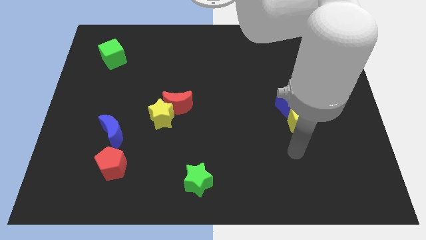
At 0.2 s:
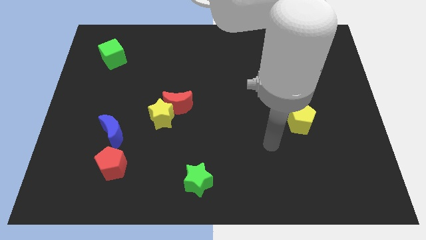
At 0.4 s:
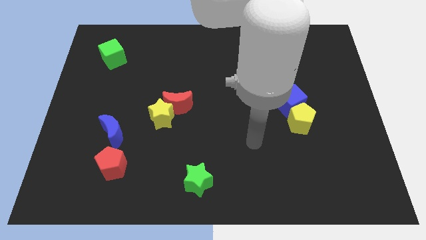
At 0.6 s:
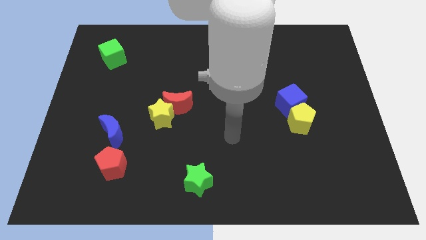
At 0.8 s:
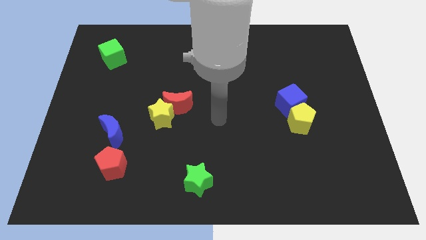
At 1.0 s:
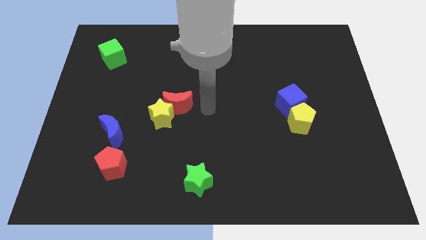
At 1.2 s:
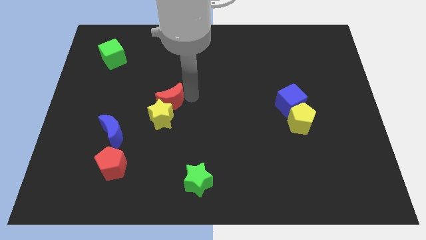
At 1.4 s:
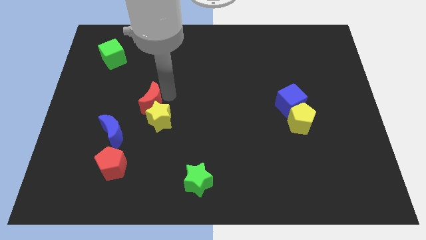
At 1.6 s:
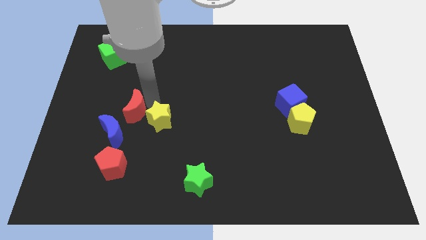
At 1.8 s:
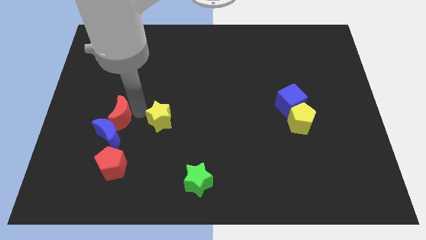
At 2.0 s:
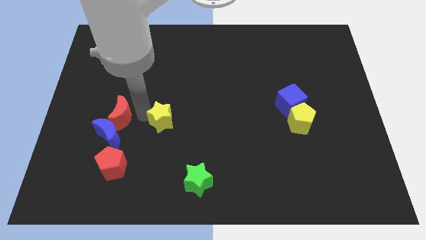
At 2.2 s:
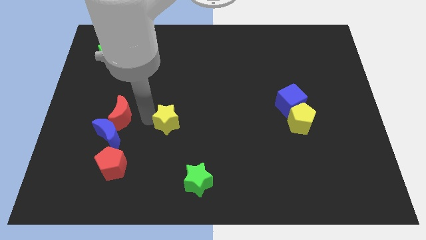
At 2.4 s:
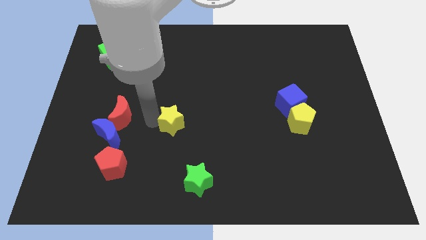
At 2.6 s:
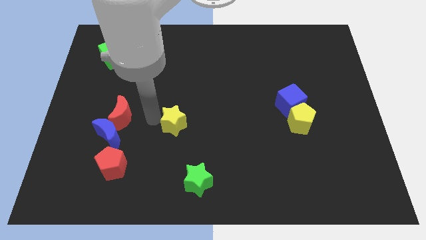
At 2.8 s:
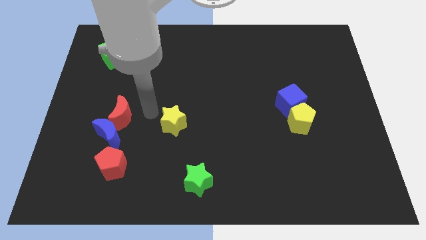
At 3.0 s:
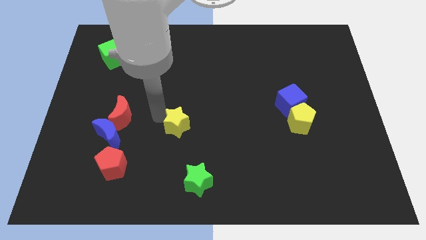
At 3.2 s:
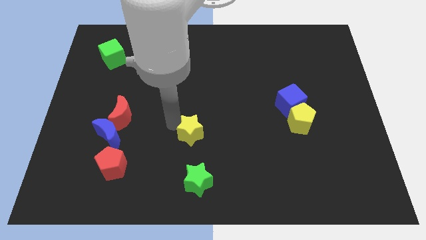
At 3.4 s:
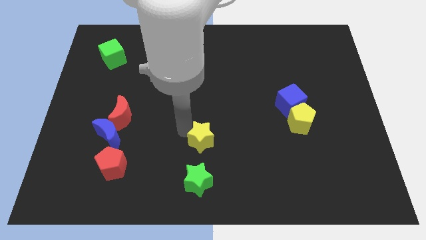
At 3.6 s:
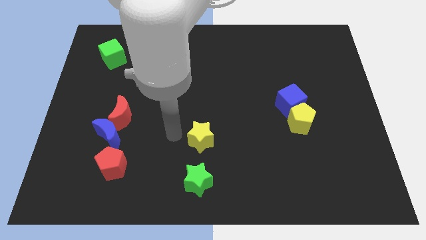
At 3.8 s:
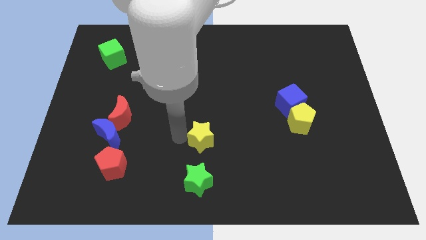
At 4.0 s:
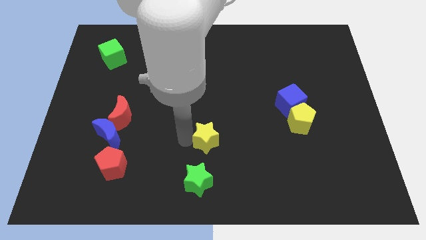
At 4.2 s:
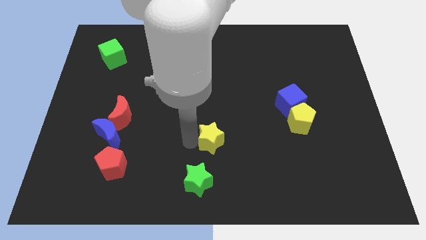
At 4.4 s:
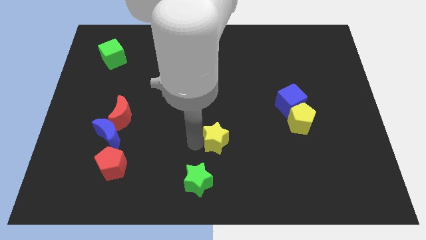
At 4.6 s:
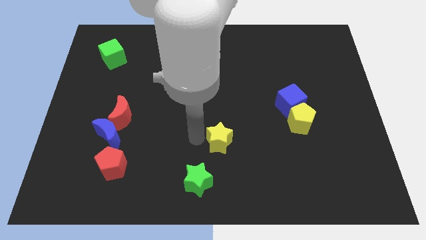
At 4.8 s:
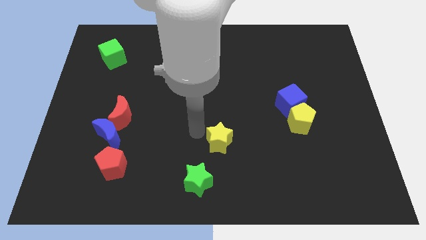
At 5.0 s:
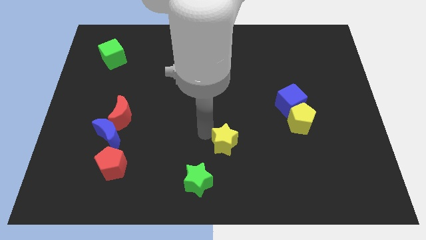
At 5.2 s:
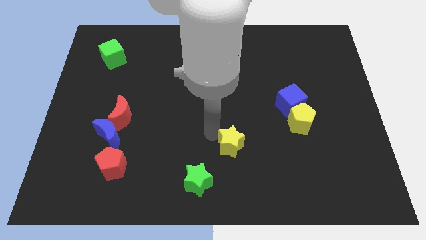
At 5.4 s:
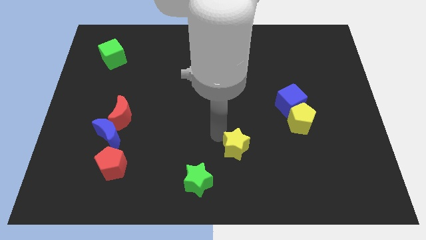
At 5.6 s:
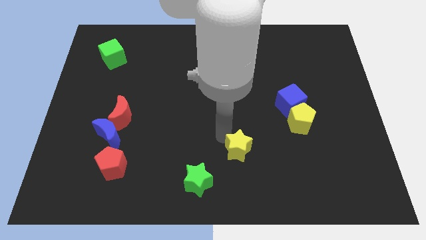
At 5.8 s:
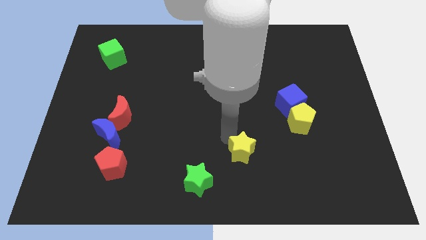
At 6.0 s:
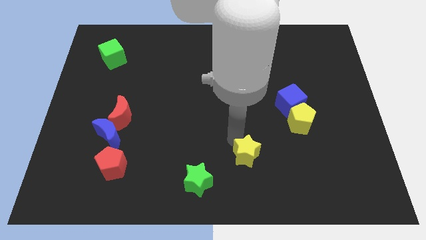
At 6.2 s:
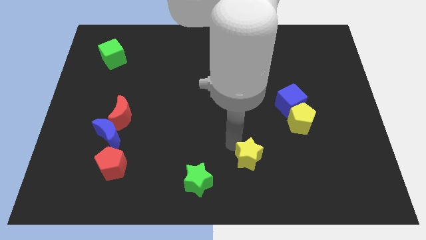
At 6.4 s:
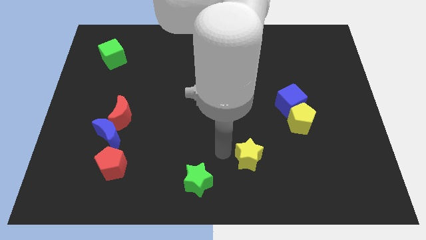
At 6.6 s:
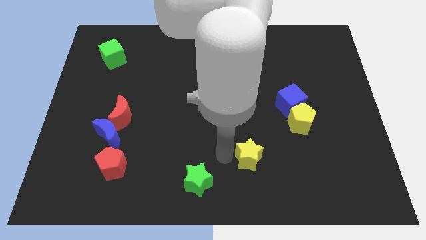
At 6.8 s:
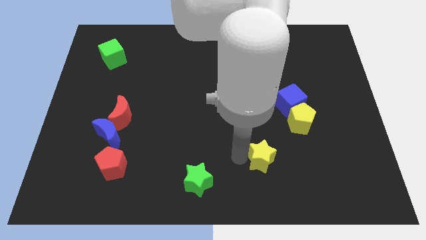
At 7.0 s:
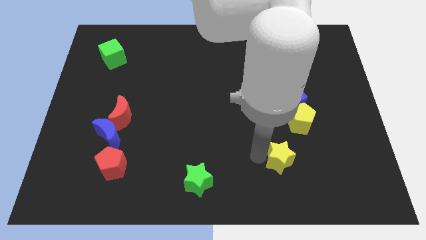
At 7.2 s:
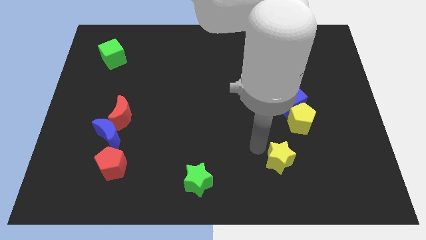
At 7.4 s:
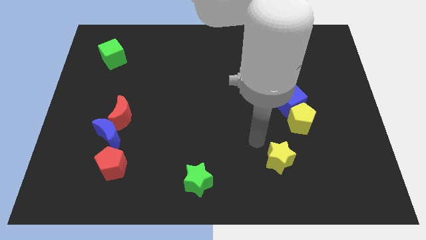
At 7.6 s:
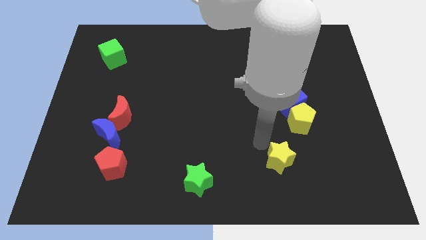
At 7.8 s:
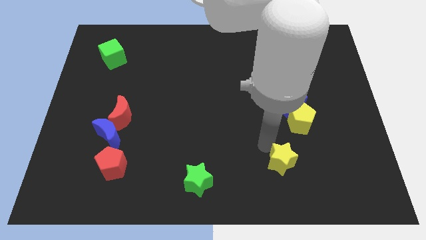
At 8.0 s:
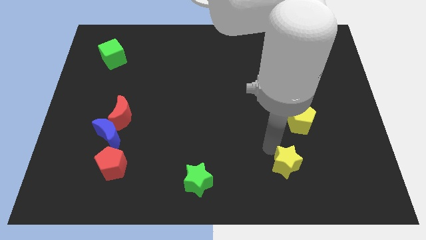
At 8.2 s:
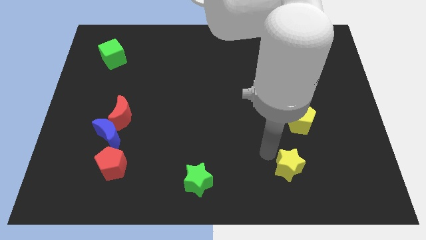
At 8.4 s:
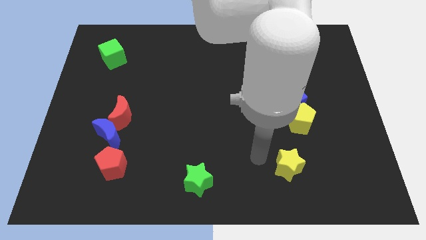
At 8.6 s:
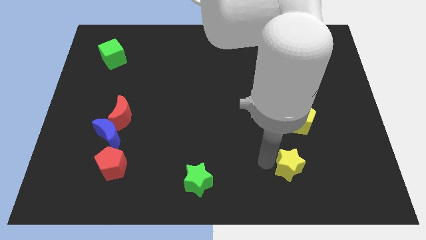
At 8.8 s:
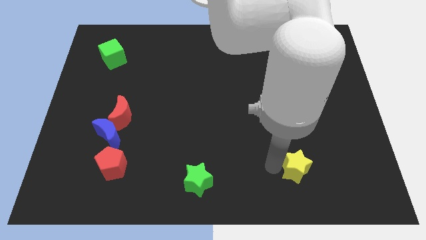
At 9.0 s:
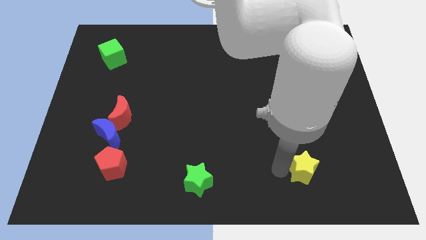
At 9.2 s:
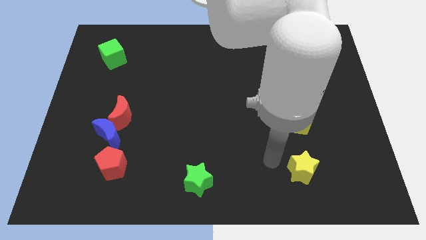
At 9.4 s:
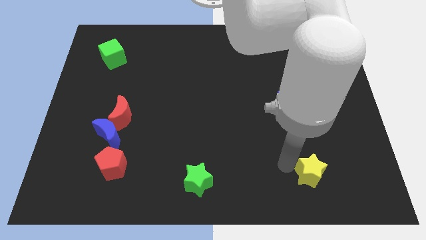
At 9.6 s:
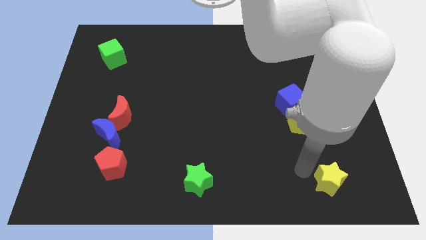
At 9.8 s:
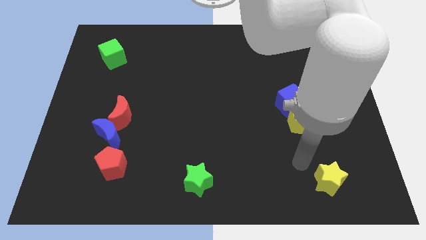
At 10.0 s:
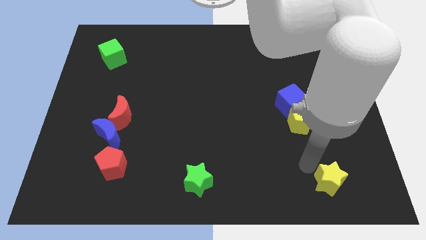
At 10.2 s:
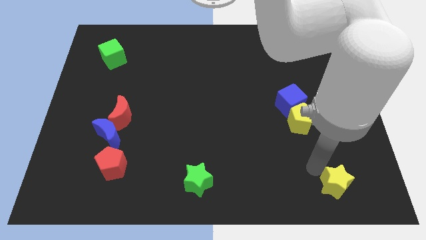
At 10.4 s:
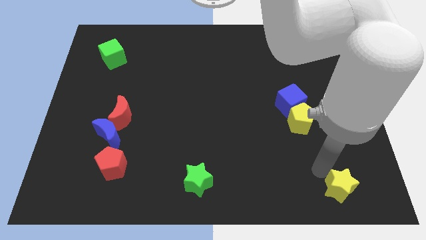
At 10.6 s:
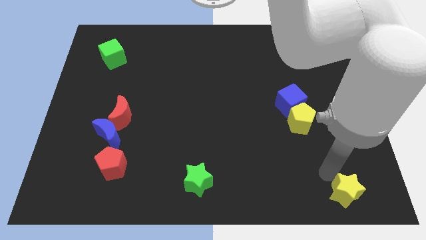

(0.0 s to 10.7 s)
put the yellow star to the bottom right corner

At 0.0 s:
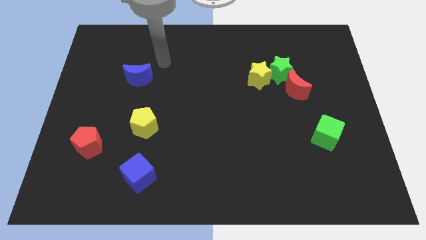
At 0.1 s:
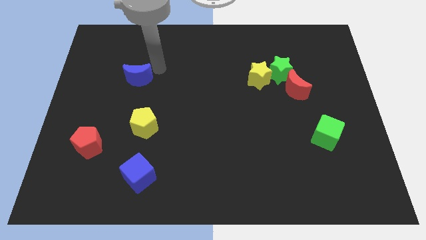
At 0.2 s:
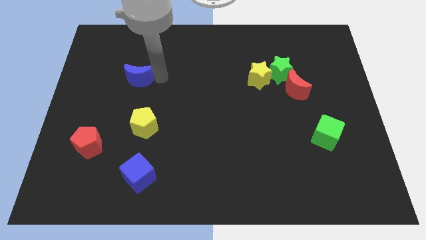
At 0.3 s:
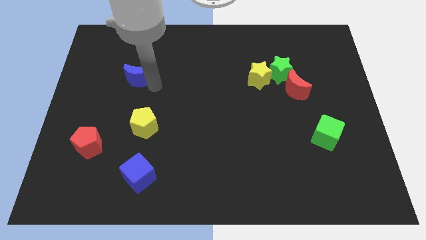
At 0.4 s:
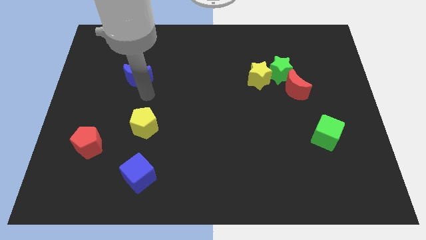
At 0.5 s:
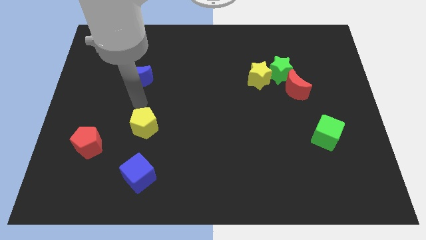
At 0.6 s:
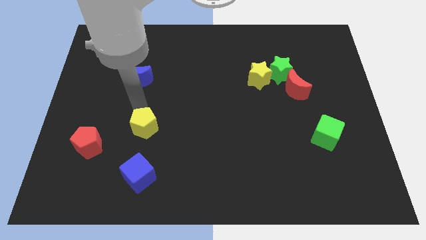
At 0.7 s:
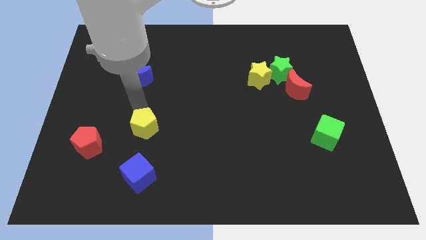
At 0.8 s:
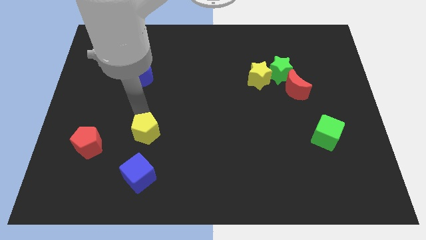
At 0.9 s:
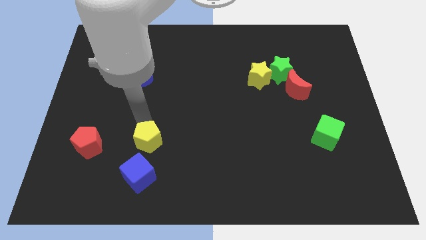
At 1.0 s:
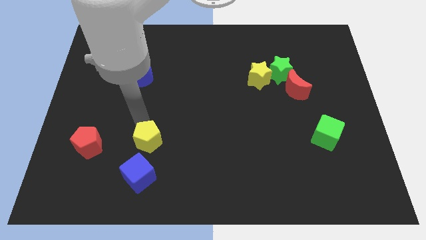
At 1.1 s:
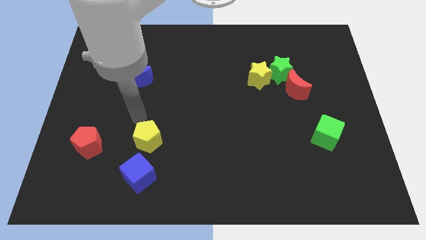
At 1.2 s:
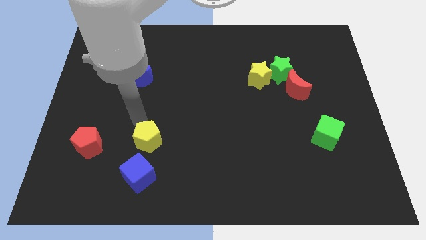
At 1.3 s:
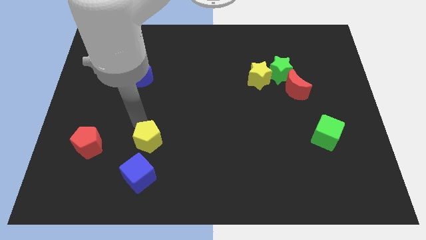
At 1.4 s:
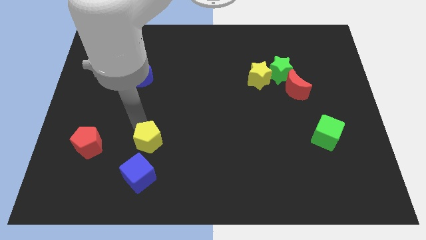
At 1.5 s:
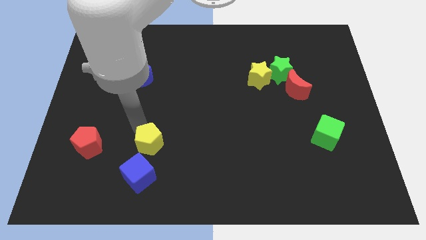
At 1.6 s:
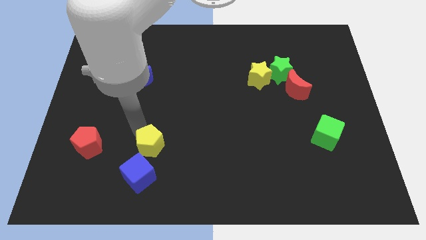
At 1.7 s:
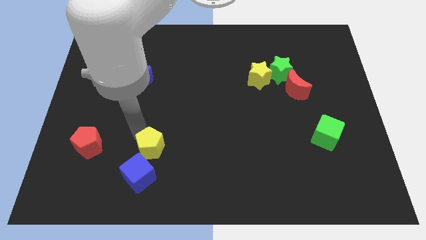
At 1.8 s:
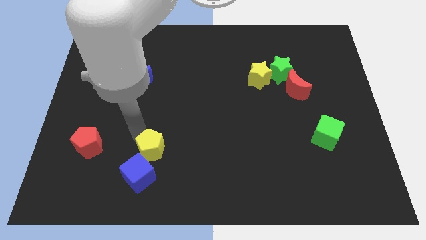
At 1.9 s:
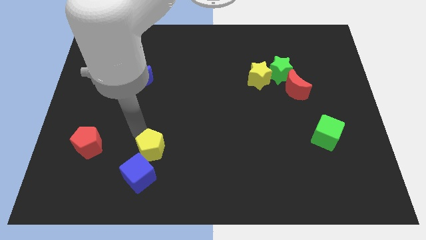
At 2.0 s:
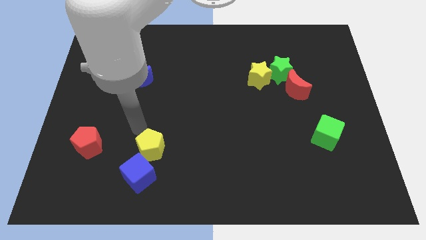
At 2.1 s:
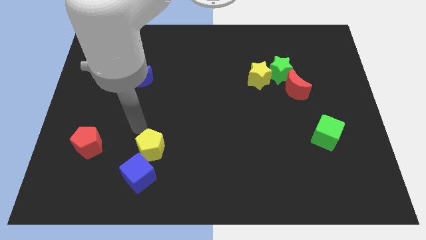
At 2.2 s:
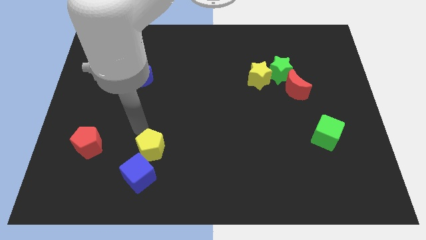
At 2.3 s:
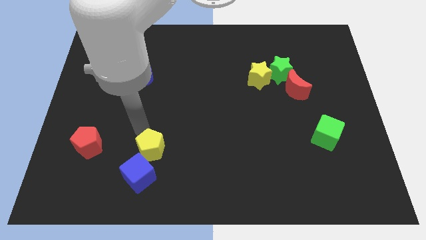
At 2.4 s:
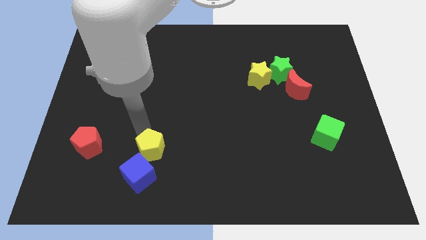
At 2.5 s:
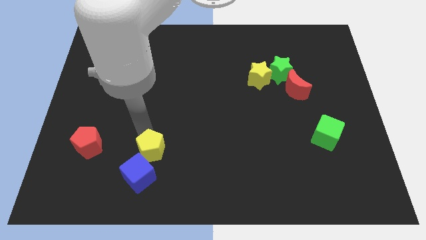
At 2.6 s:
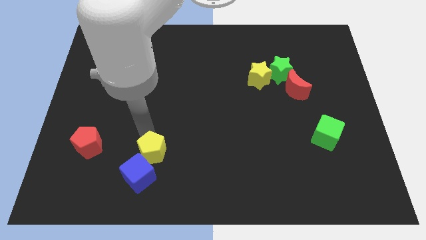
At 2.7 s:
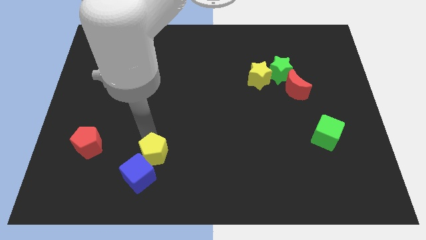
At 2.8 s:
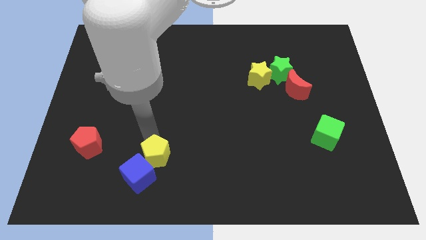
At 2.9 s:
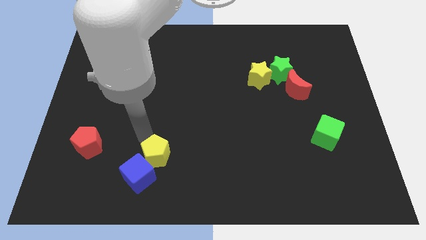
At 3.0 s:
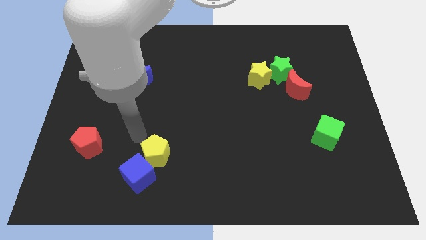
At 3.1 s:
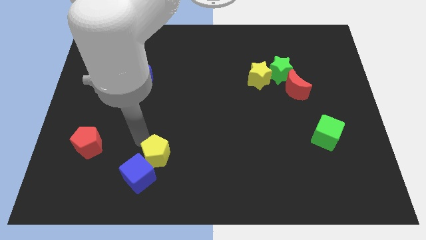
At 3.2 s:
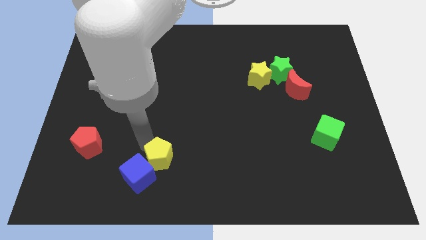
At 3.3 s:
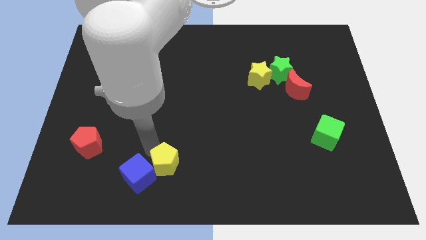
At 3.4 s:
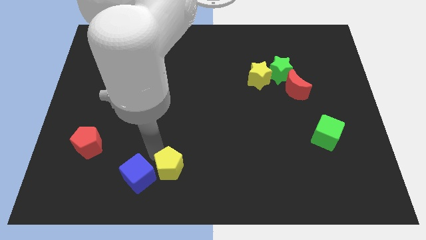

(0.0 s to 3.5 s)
push the yellow pentagon to the bottom
